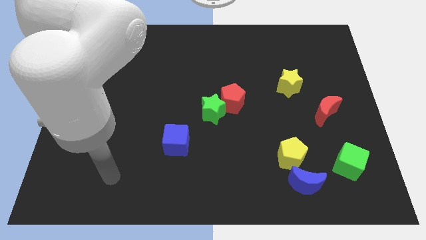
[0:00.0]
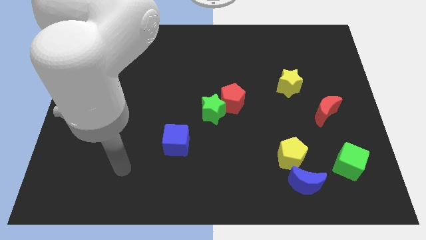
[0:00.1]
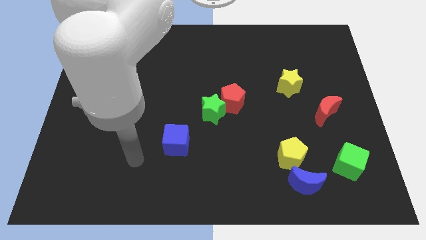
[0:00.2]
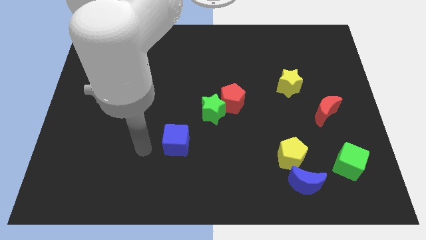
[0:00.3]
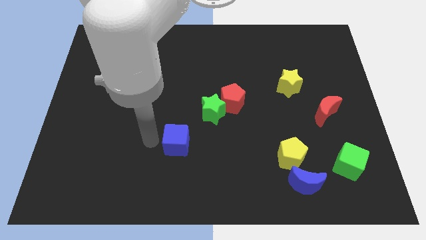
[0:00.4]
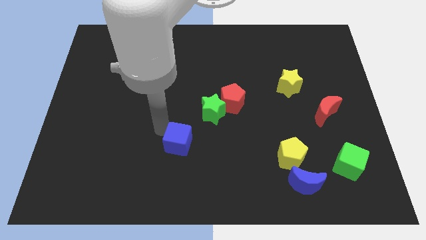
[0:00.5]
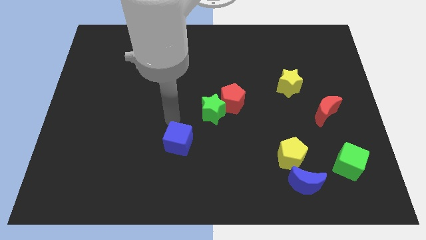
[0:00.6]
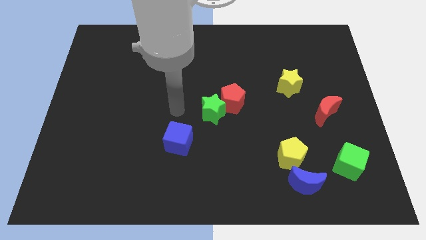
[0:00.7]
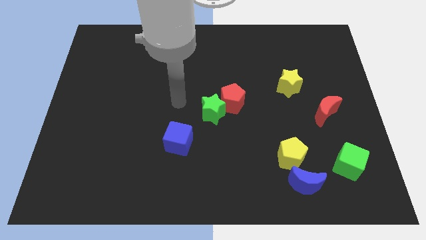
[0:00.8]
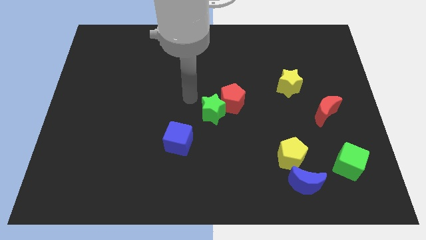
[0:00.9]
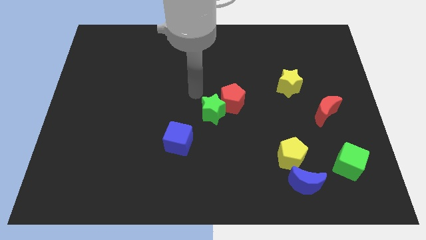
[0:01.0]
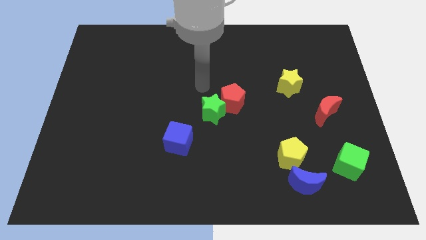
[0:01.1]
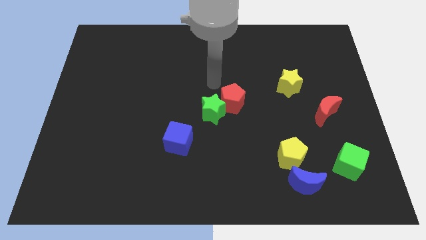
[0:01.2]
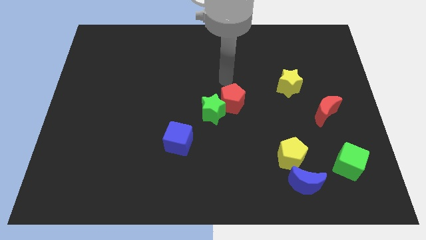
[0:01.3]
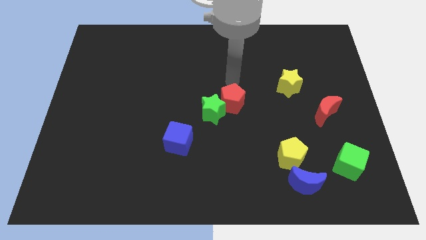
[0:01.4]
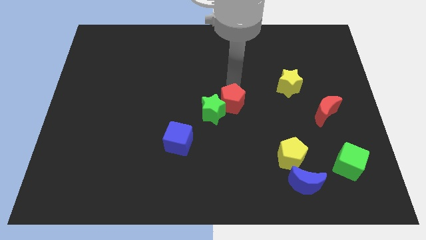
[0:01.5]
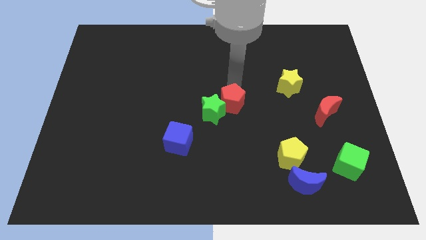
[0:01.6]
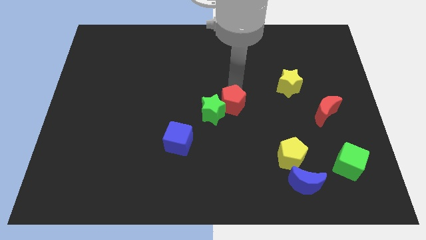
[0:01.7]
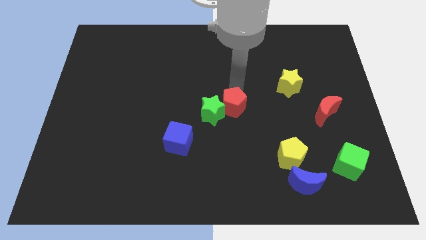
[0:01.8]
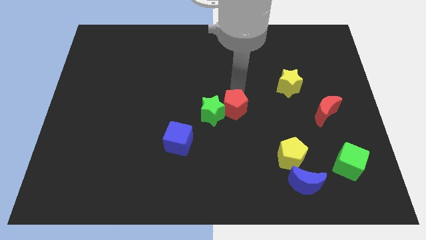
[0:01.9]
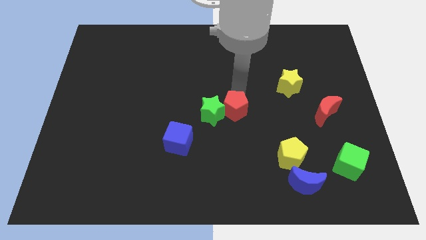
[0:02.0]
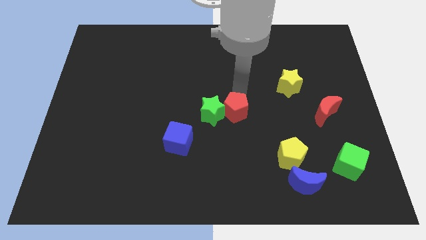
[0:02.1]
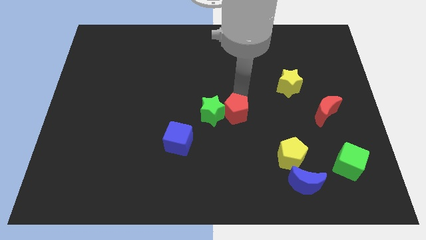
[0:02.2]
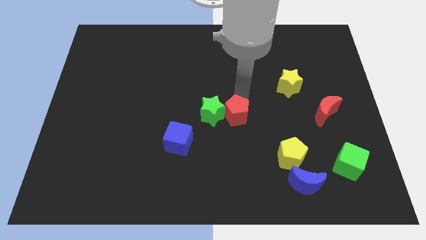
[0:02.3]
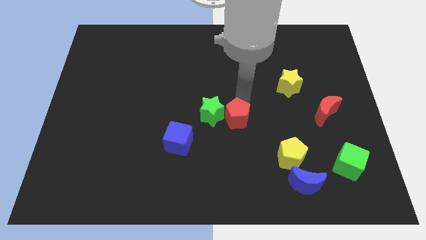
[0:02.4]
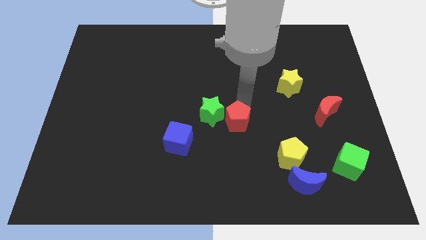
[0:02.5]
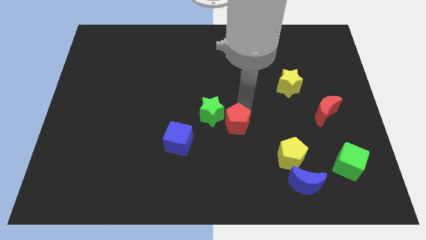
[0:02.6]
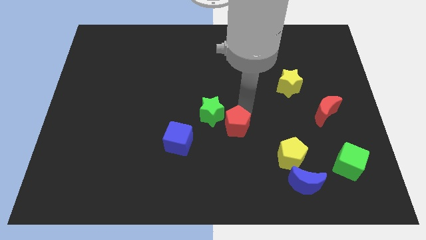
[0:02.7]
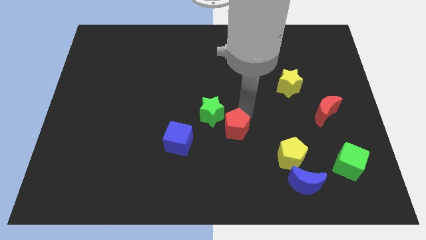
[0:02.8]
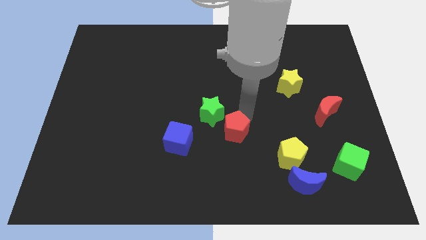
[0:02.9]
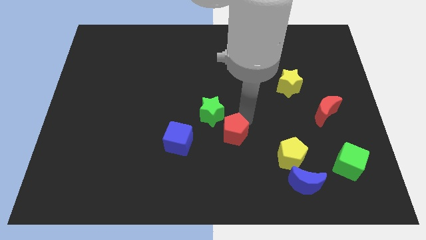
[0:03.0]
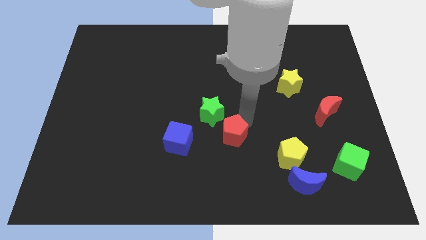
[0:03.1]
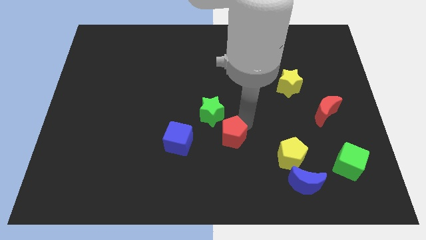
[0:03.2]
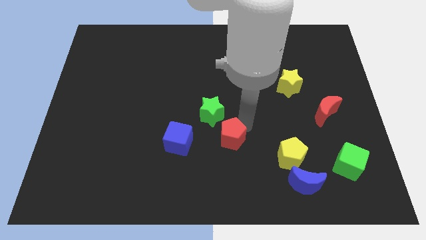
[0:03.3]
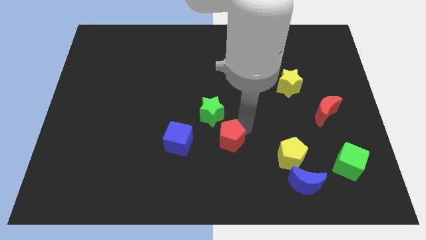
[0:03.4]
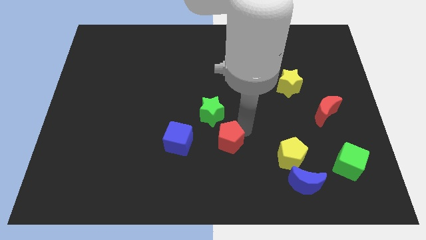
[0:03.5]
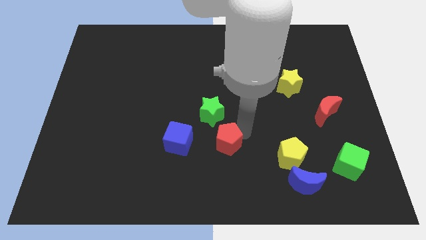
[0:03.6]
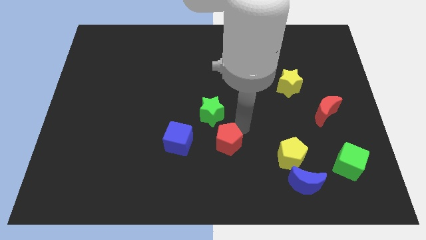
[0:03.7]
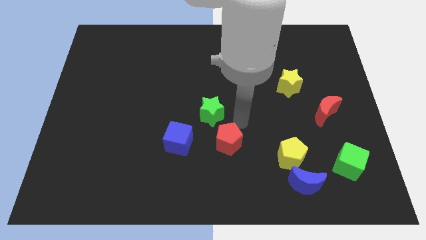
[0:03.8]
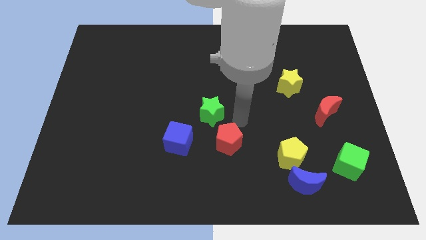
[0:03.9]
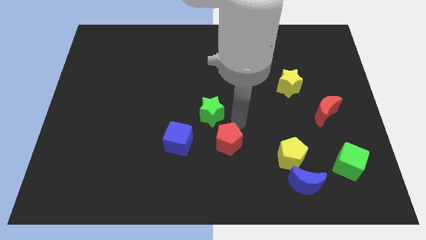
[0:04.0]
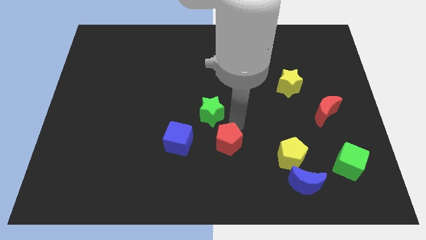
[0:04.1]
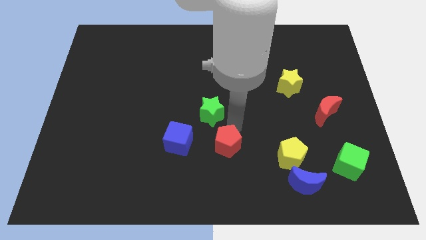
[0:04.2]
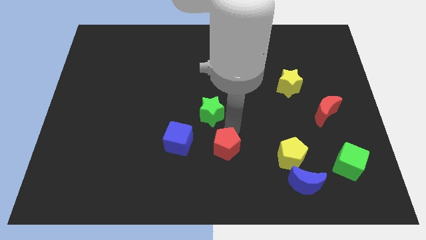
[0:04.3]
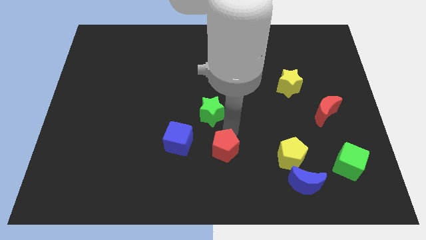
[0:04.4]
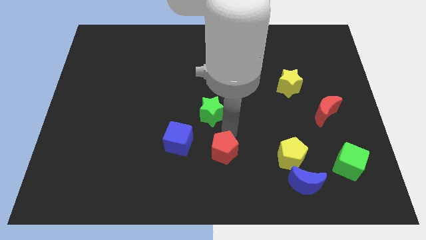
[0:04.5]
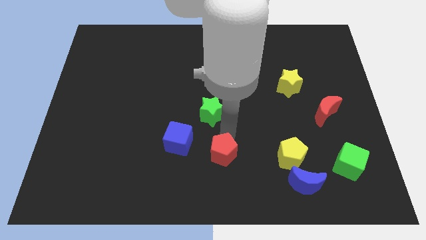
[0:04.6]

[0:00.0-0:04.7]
put the red pentagon to the bottom side

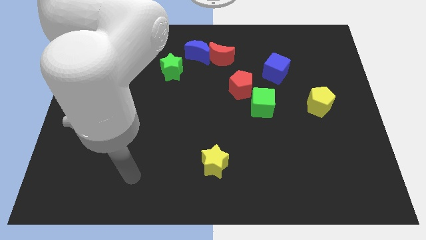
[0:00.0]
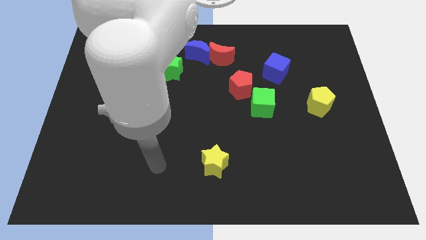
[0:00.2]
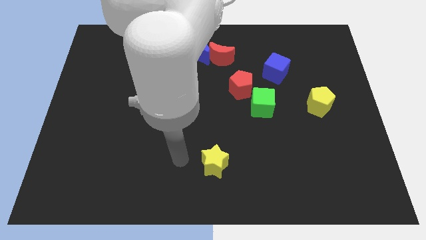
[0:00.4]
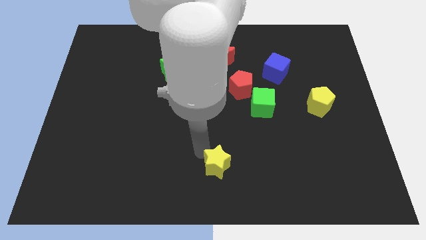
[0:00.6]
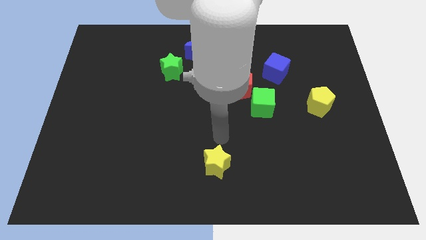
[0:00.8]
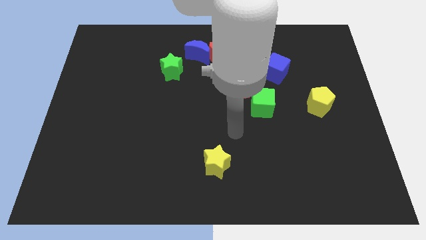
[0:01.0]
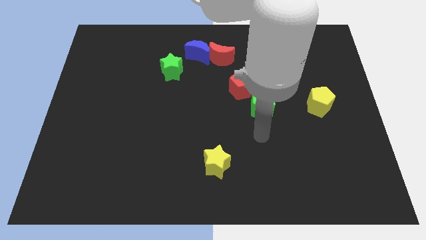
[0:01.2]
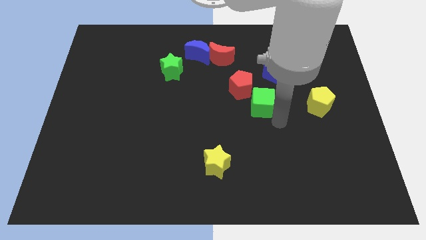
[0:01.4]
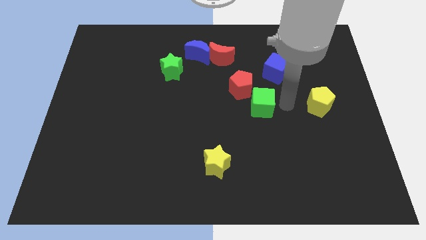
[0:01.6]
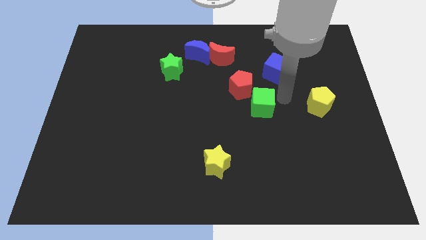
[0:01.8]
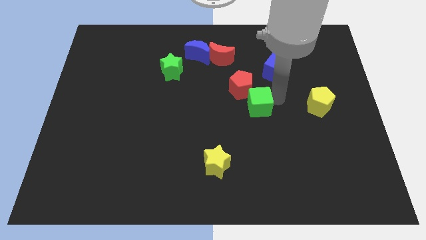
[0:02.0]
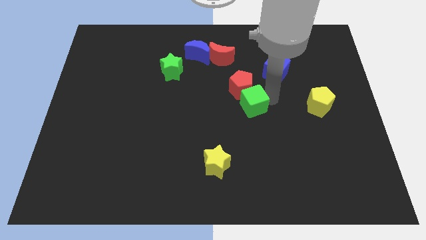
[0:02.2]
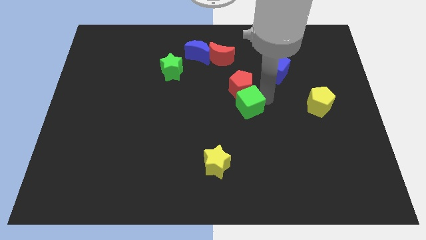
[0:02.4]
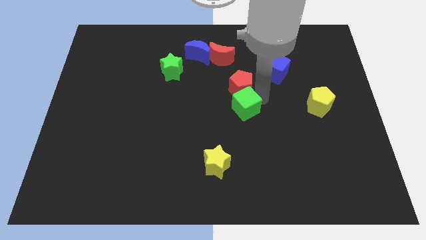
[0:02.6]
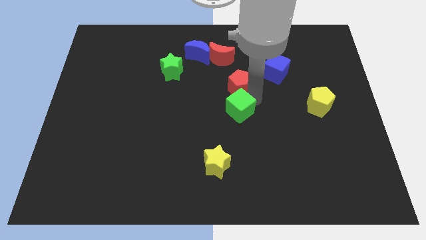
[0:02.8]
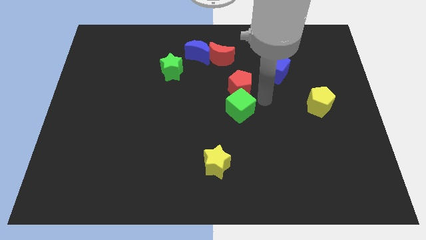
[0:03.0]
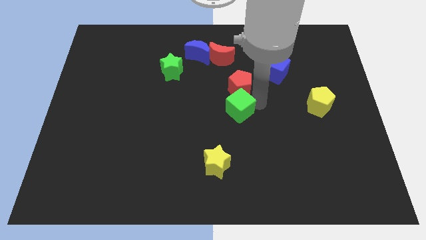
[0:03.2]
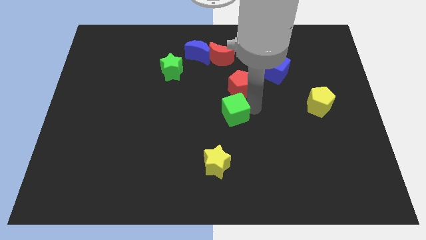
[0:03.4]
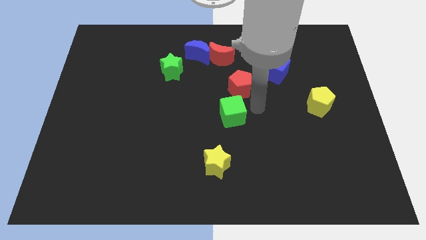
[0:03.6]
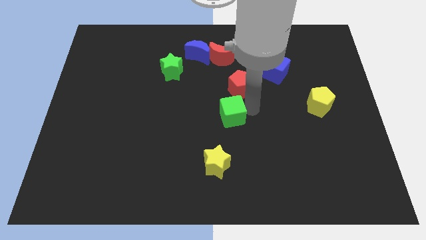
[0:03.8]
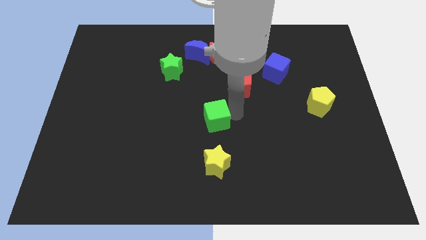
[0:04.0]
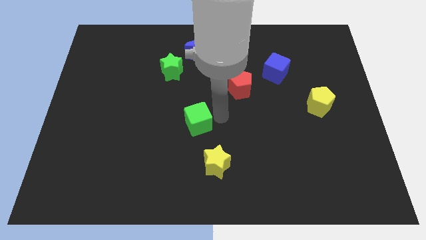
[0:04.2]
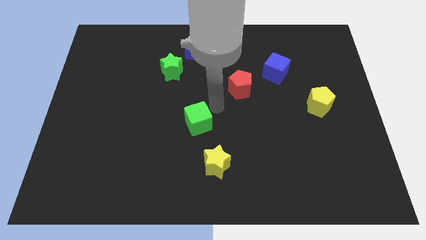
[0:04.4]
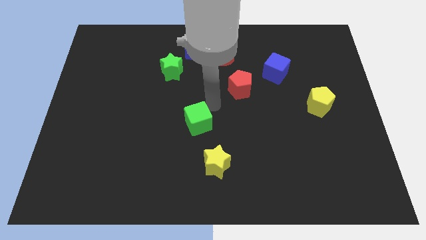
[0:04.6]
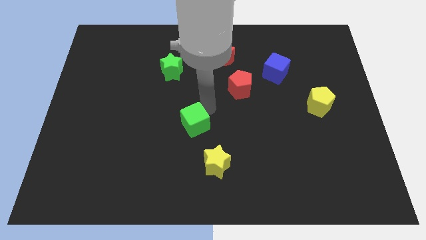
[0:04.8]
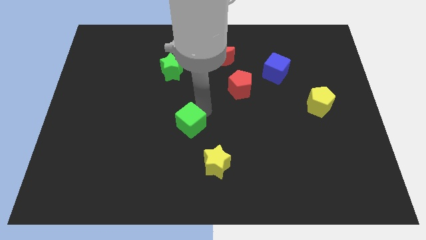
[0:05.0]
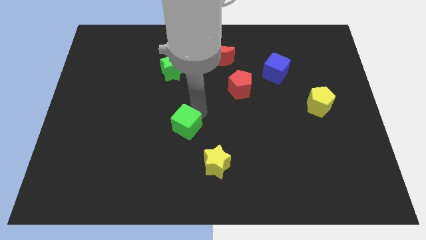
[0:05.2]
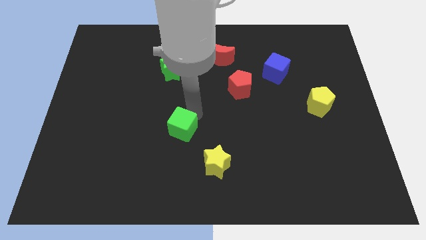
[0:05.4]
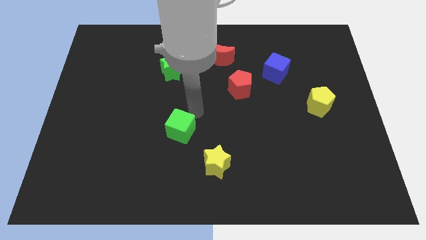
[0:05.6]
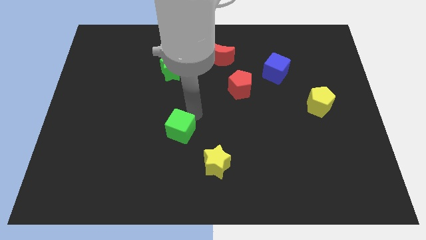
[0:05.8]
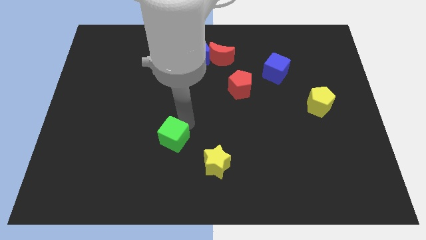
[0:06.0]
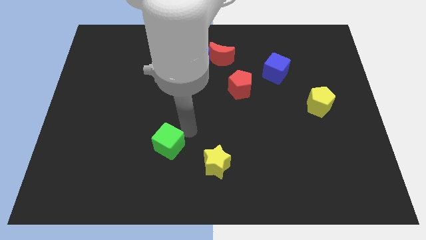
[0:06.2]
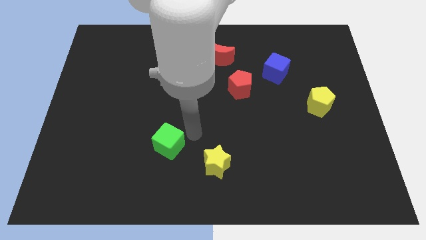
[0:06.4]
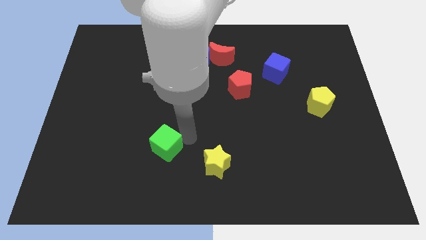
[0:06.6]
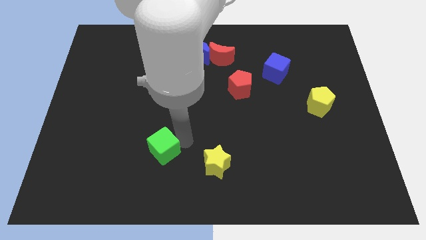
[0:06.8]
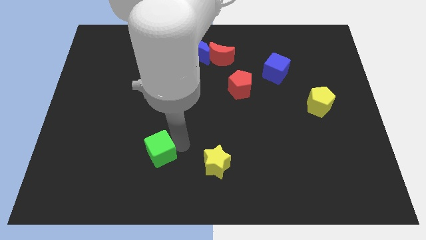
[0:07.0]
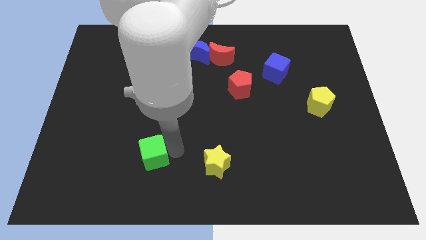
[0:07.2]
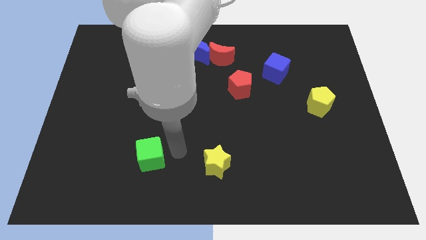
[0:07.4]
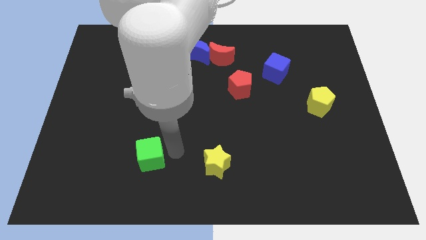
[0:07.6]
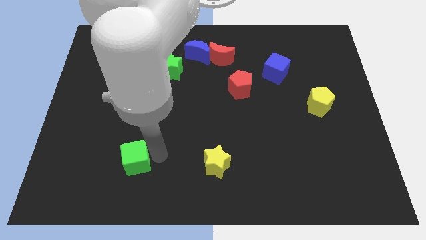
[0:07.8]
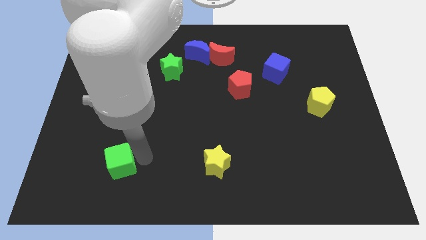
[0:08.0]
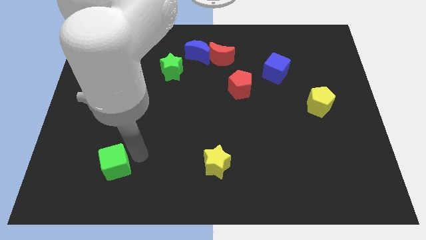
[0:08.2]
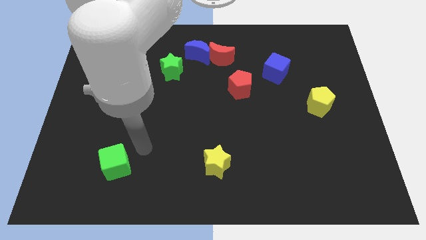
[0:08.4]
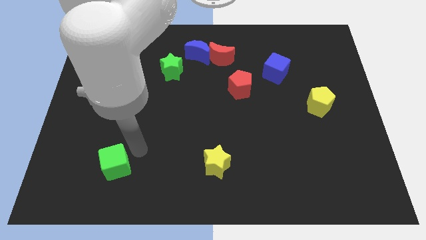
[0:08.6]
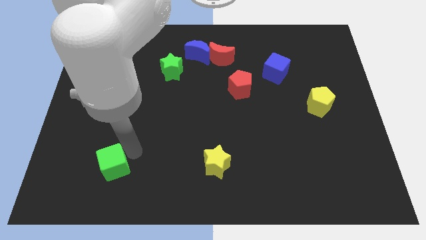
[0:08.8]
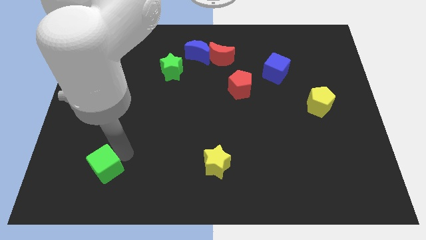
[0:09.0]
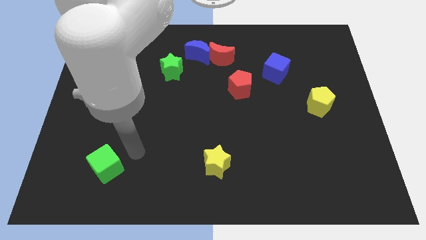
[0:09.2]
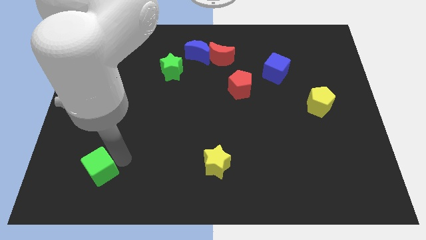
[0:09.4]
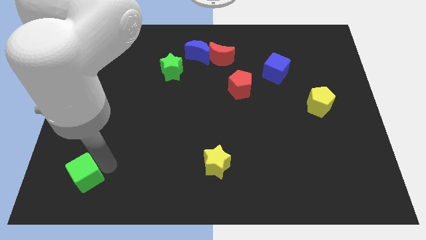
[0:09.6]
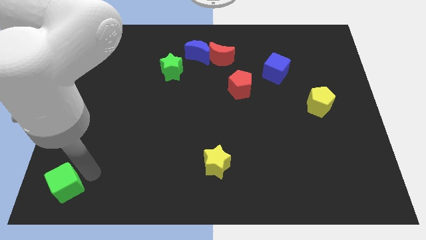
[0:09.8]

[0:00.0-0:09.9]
slide the green cube to the bottom left of the board
